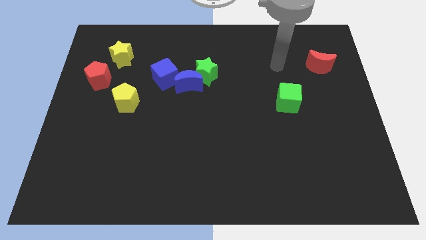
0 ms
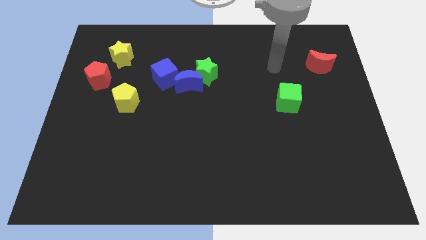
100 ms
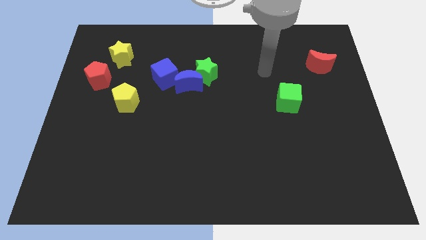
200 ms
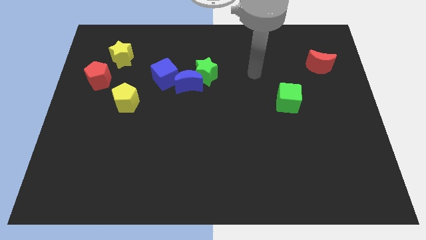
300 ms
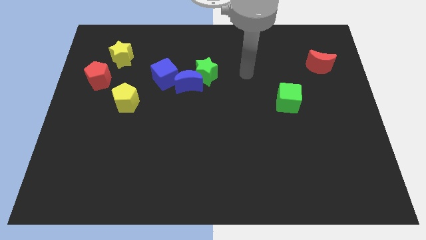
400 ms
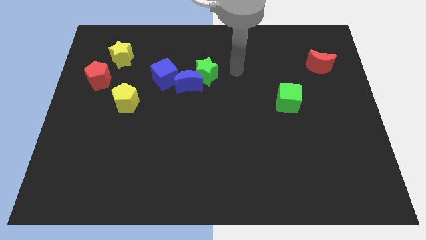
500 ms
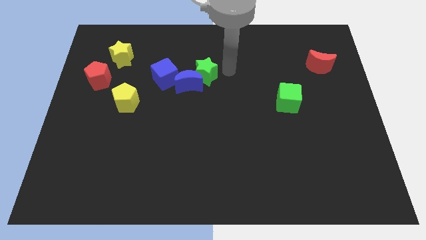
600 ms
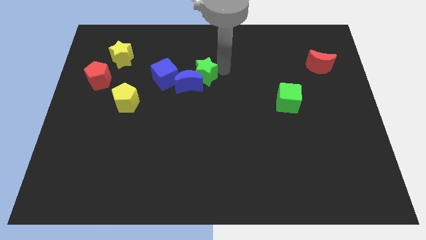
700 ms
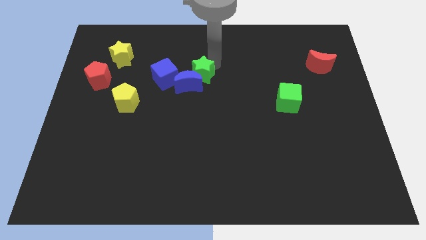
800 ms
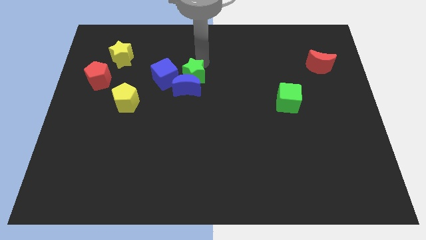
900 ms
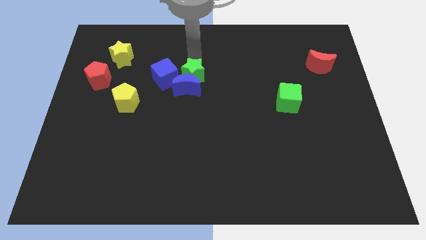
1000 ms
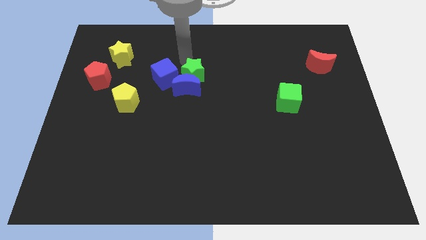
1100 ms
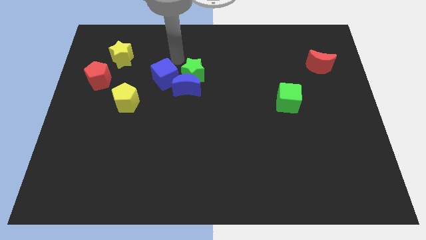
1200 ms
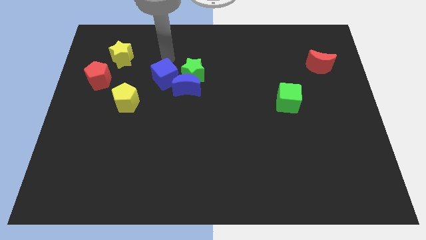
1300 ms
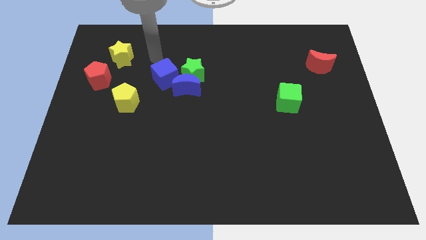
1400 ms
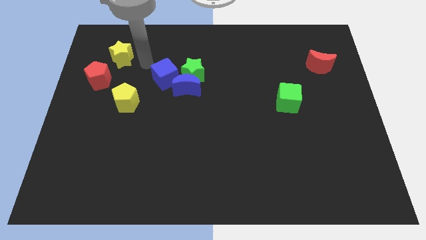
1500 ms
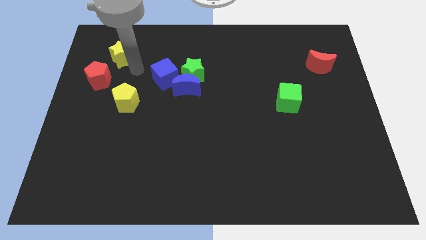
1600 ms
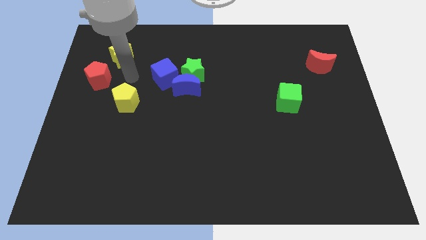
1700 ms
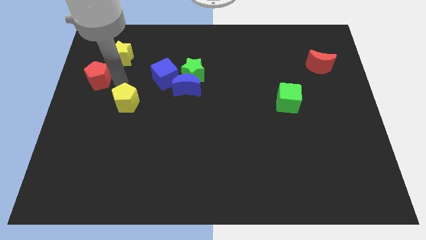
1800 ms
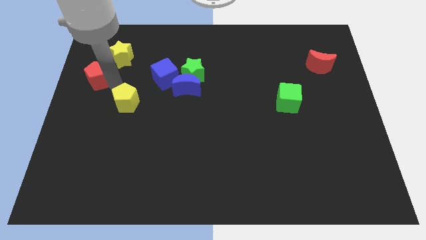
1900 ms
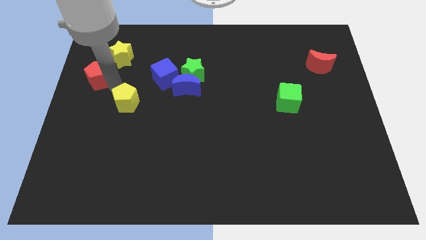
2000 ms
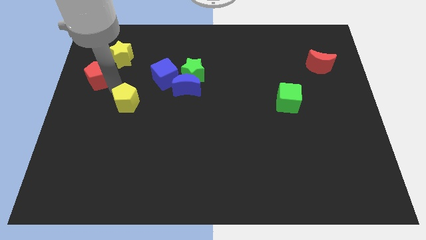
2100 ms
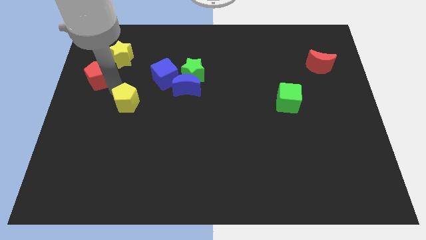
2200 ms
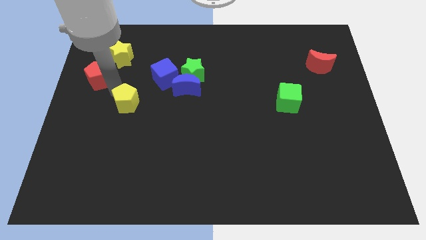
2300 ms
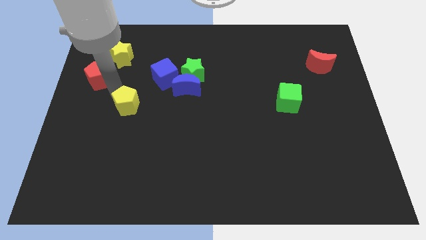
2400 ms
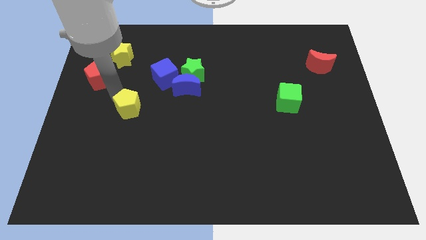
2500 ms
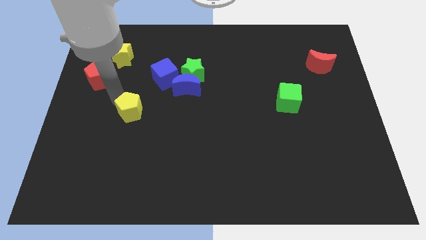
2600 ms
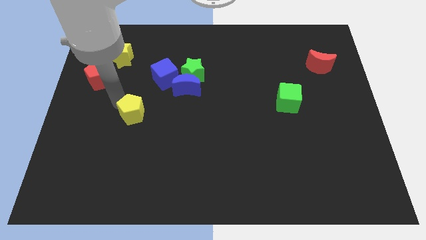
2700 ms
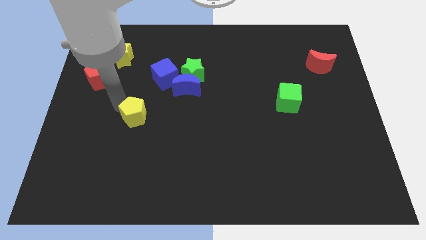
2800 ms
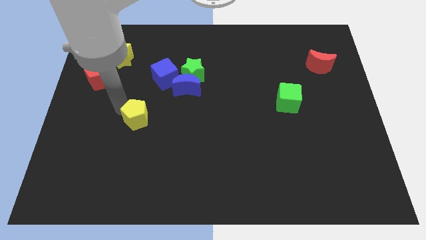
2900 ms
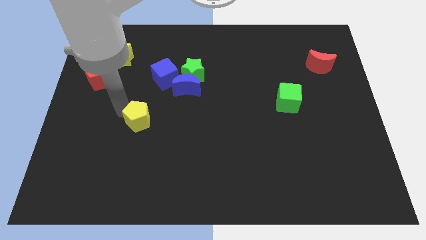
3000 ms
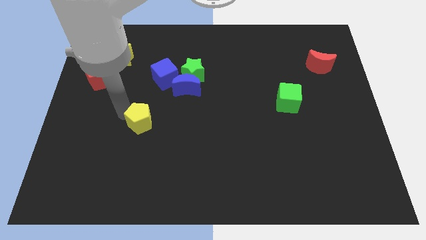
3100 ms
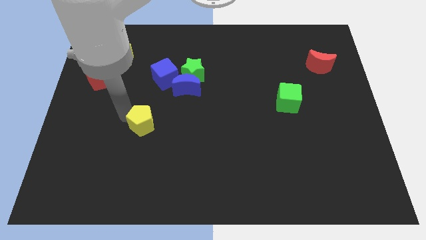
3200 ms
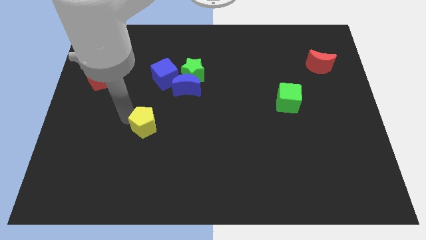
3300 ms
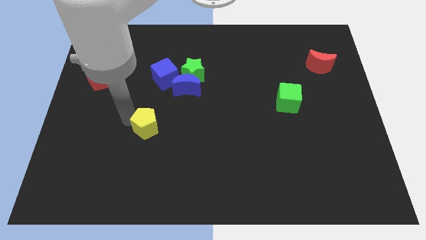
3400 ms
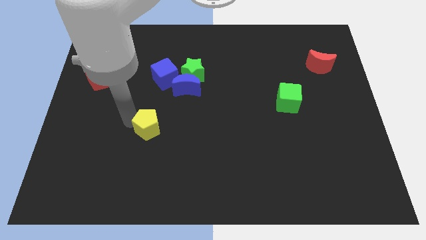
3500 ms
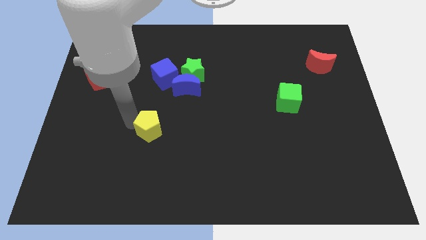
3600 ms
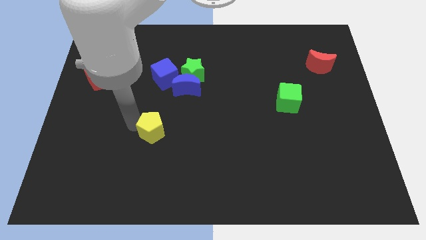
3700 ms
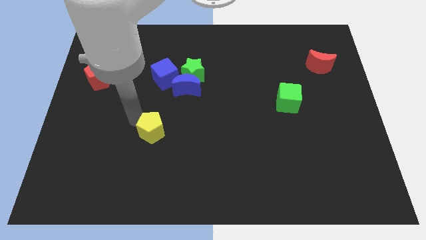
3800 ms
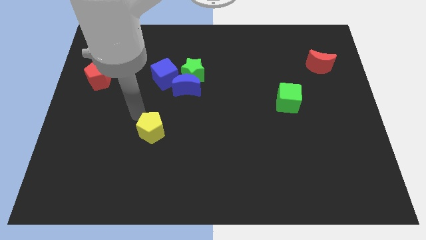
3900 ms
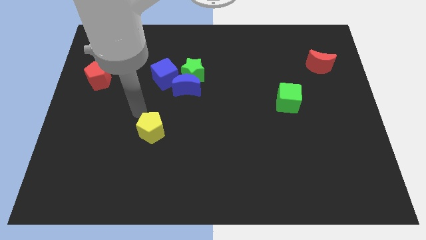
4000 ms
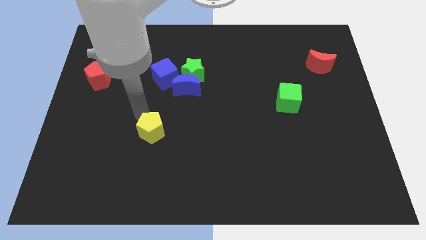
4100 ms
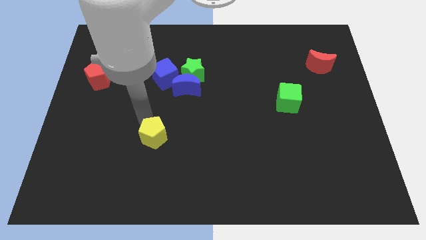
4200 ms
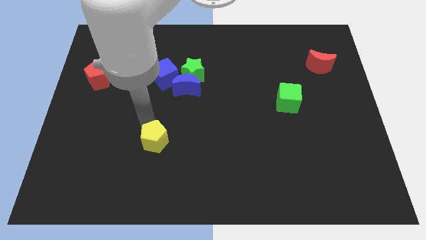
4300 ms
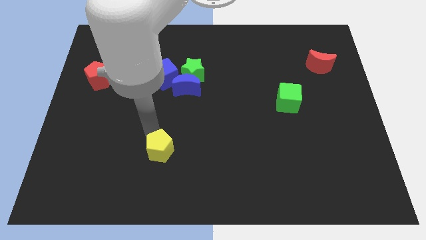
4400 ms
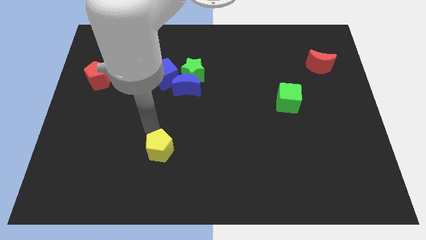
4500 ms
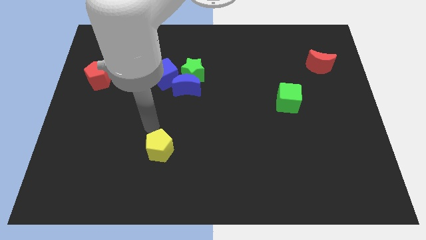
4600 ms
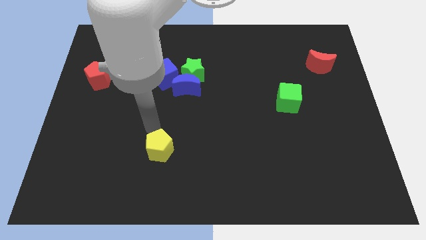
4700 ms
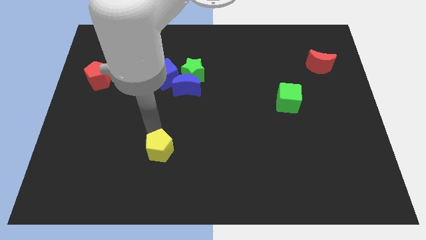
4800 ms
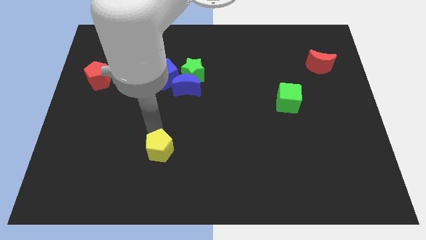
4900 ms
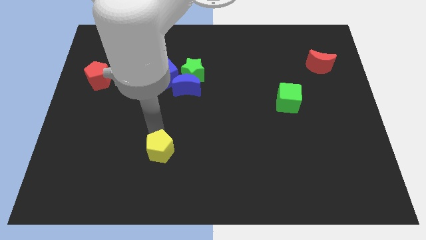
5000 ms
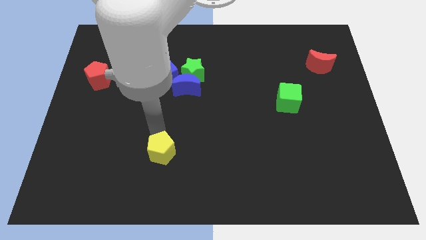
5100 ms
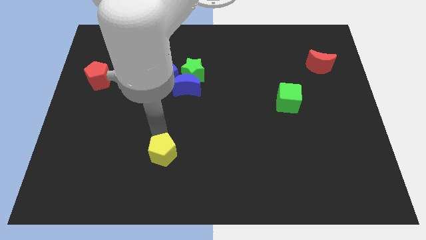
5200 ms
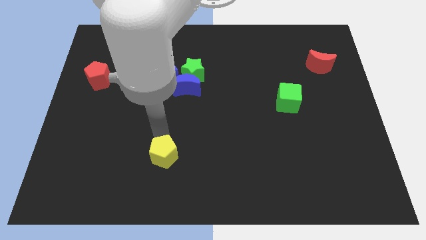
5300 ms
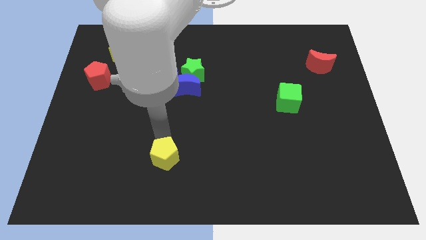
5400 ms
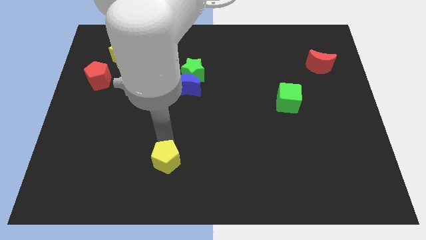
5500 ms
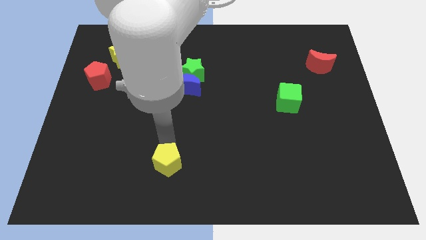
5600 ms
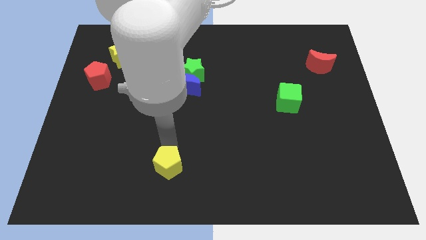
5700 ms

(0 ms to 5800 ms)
push the yellow pentagon to the bottom side
